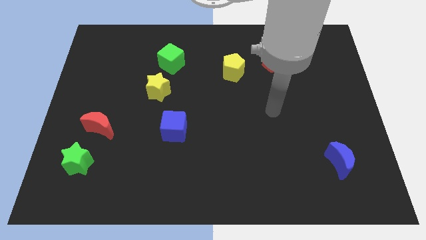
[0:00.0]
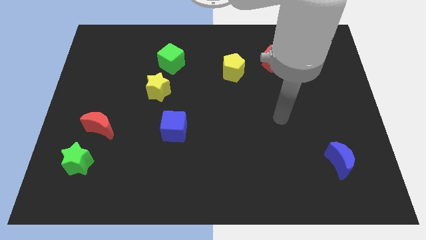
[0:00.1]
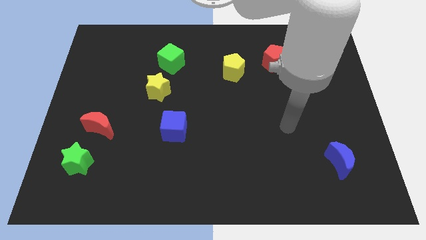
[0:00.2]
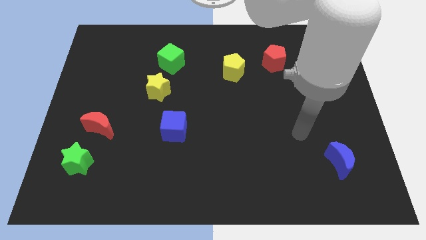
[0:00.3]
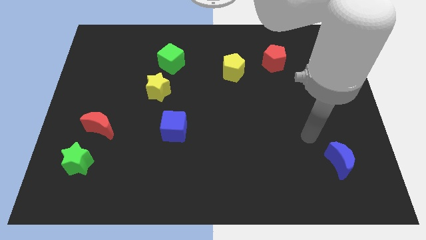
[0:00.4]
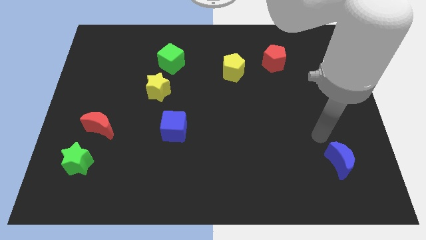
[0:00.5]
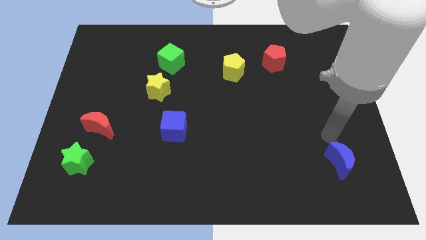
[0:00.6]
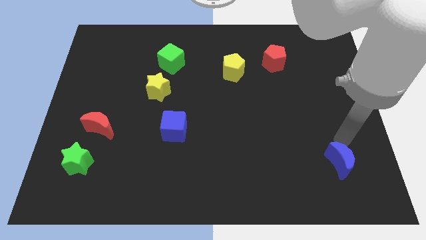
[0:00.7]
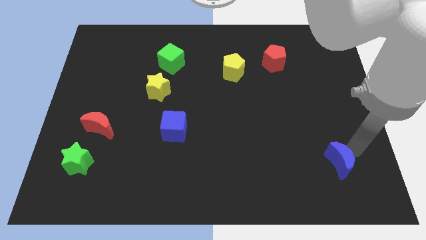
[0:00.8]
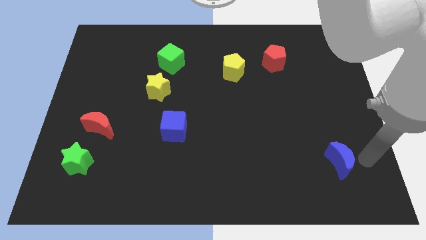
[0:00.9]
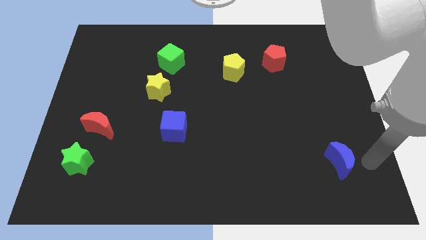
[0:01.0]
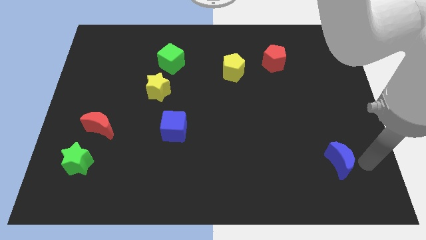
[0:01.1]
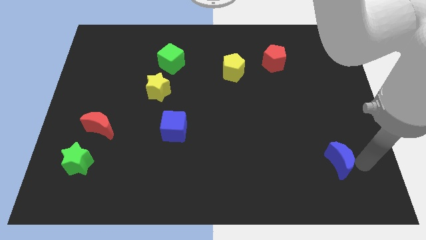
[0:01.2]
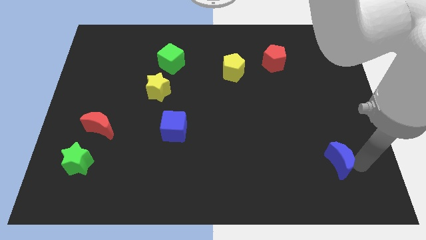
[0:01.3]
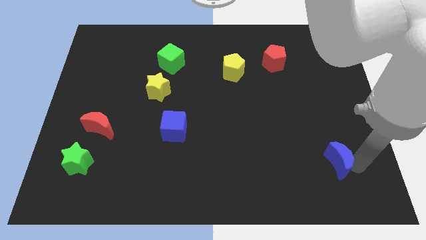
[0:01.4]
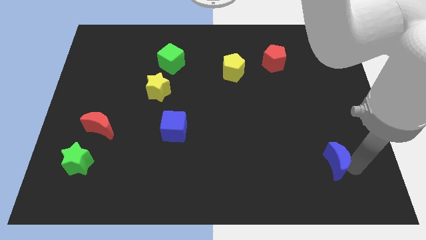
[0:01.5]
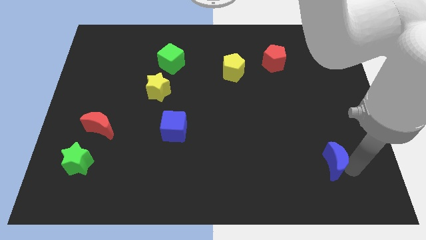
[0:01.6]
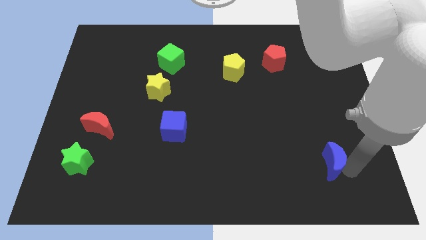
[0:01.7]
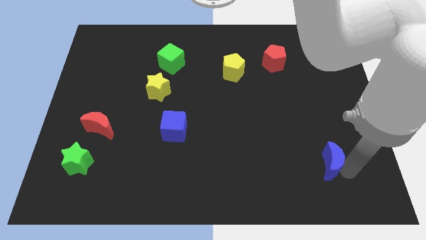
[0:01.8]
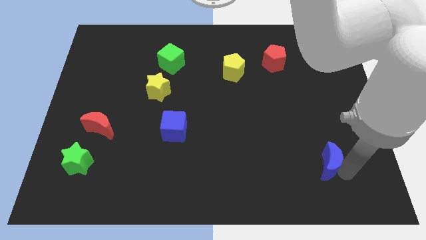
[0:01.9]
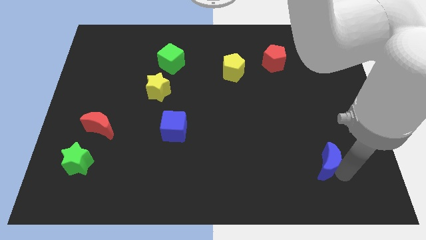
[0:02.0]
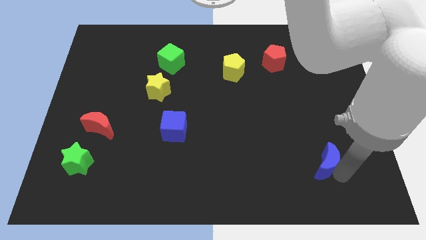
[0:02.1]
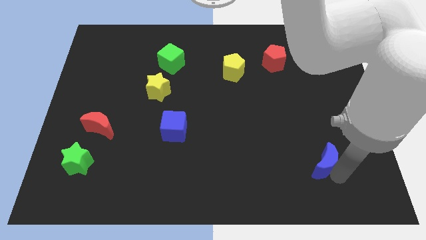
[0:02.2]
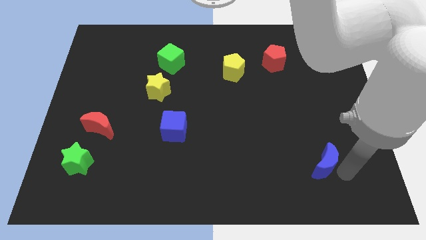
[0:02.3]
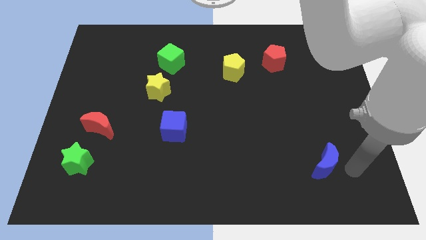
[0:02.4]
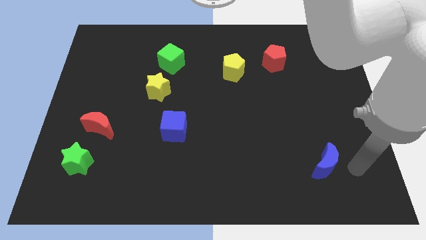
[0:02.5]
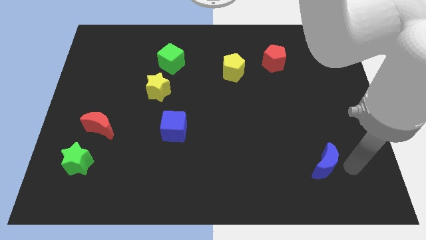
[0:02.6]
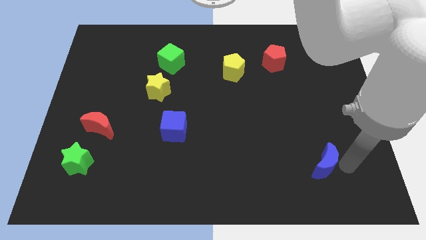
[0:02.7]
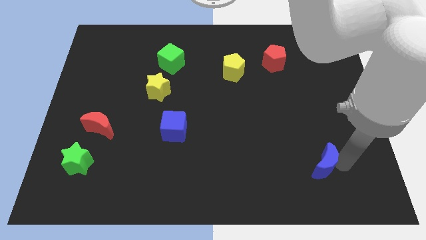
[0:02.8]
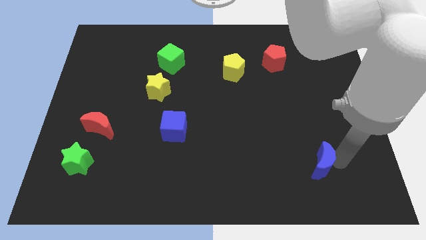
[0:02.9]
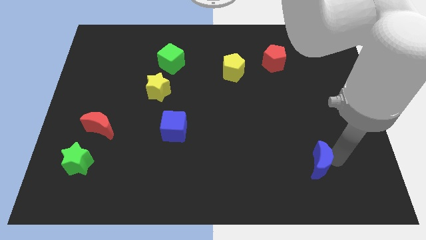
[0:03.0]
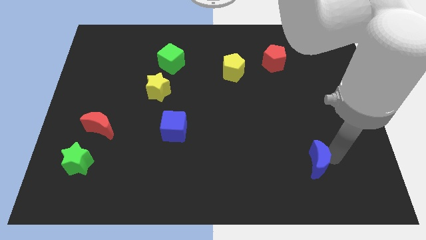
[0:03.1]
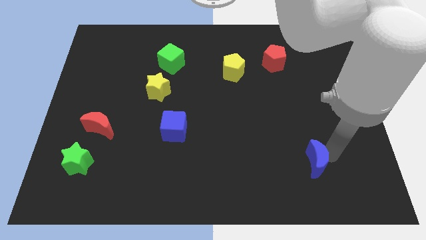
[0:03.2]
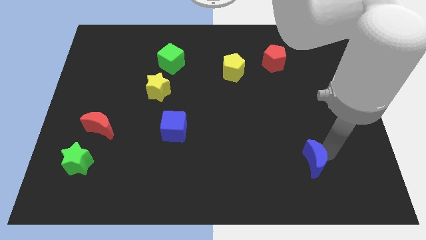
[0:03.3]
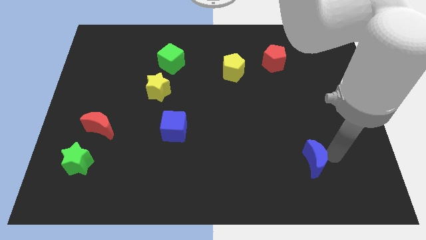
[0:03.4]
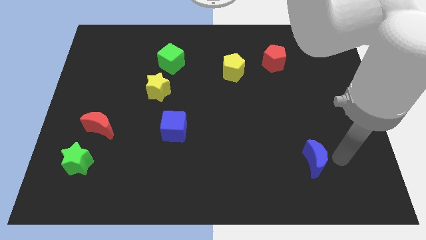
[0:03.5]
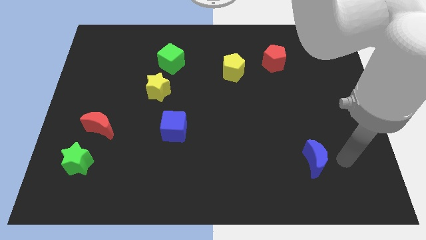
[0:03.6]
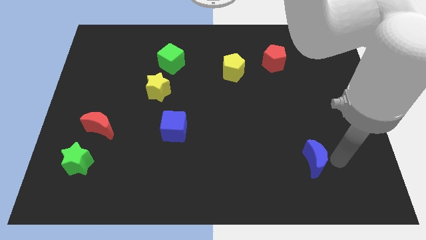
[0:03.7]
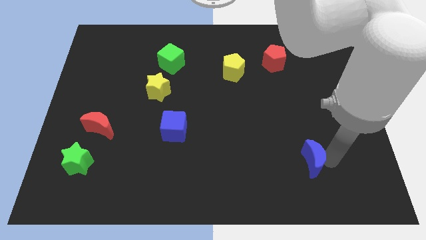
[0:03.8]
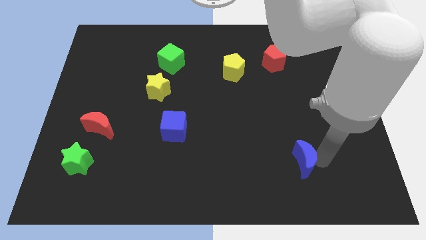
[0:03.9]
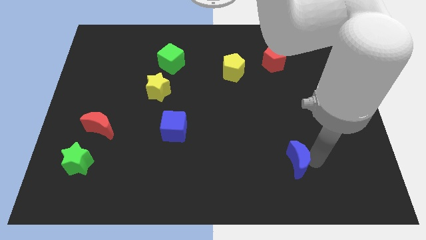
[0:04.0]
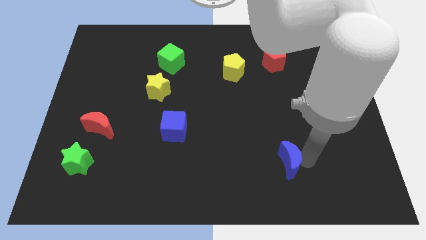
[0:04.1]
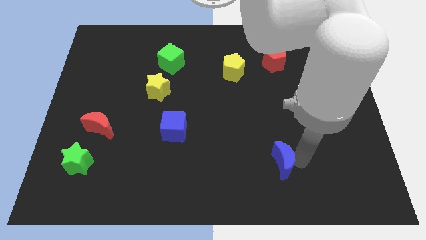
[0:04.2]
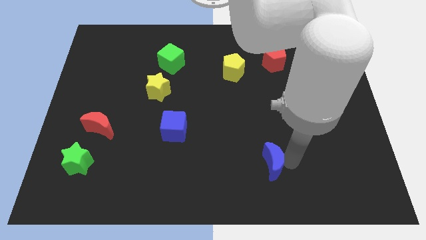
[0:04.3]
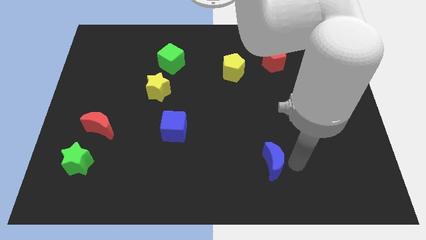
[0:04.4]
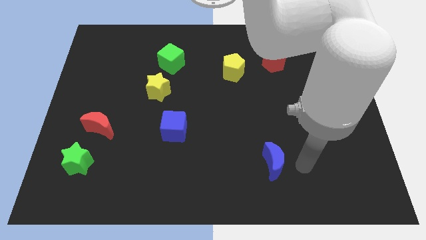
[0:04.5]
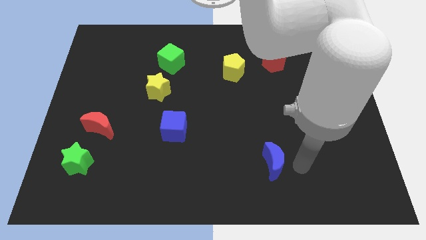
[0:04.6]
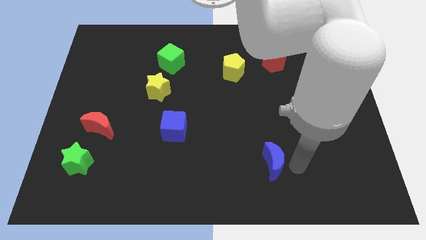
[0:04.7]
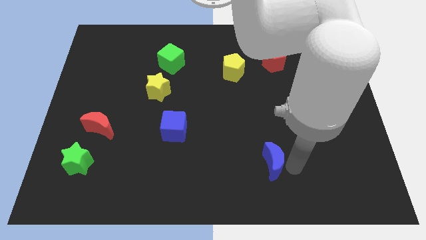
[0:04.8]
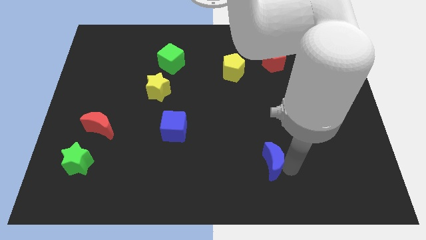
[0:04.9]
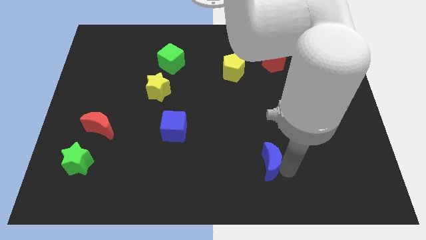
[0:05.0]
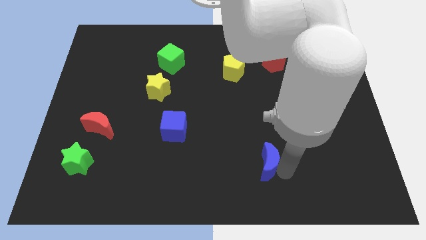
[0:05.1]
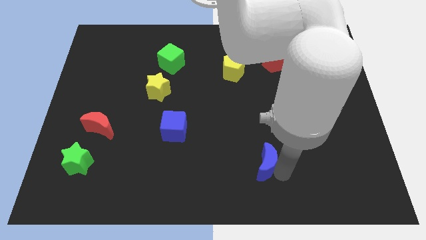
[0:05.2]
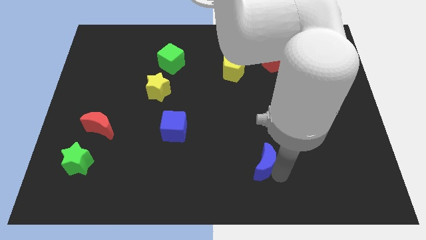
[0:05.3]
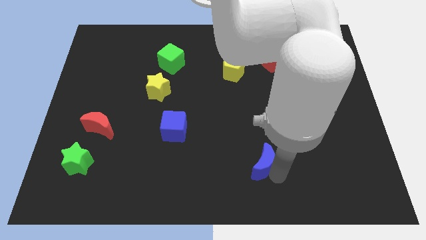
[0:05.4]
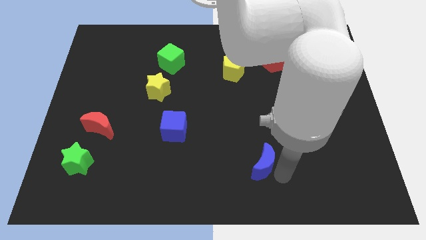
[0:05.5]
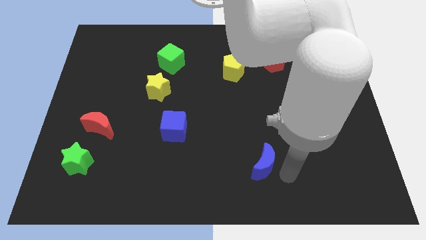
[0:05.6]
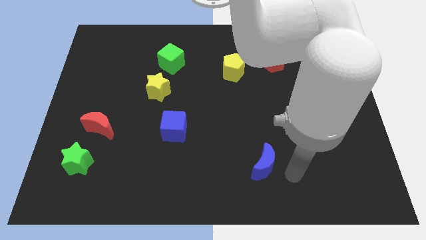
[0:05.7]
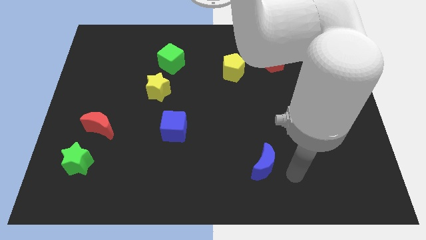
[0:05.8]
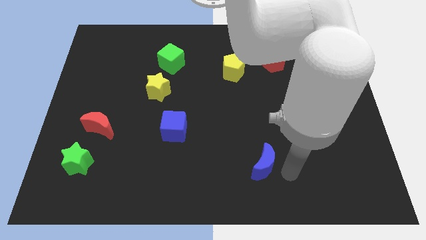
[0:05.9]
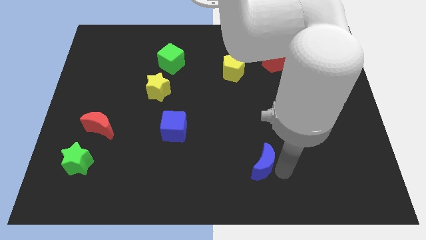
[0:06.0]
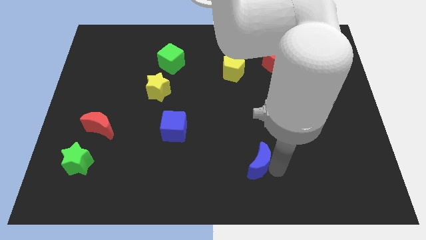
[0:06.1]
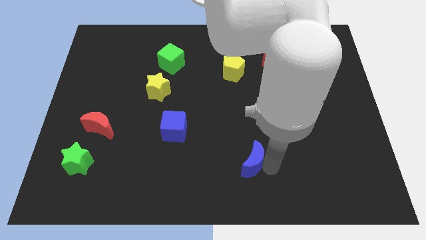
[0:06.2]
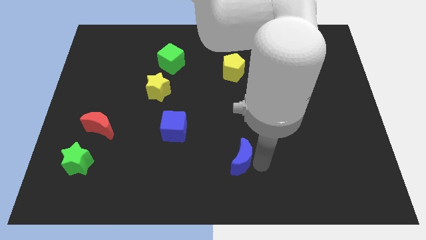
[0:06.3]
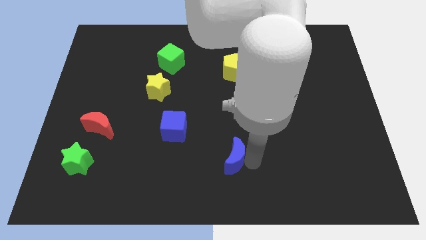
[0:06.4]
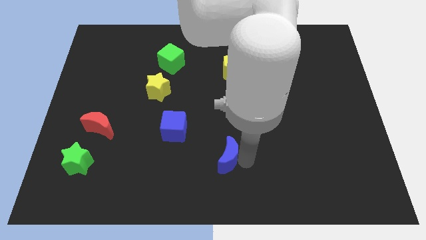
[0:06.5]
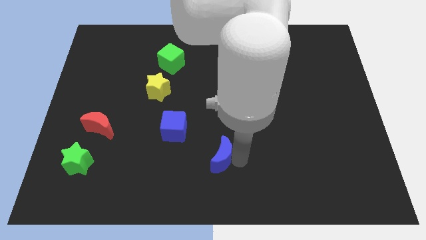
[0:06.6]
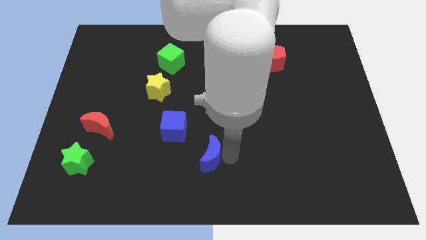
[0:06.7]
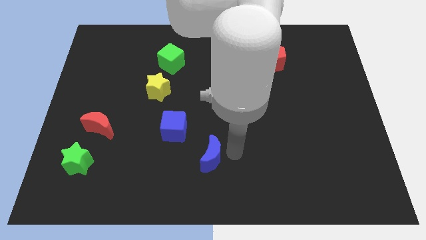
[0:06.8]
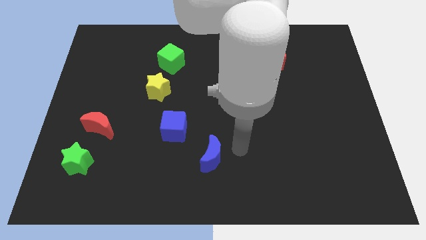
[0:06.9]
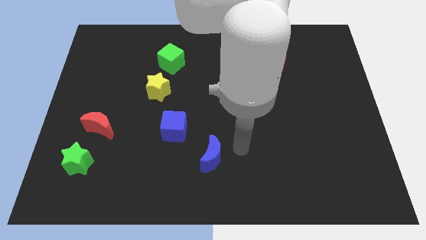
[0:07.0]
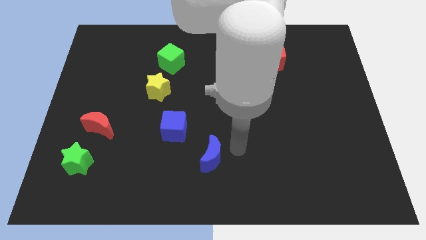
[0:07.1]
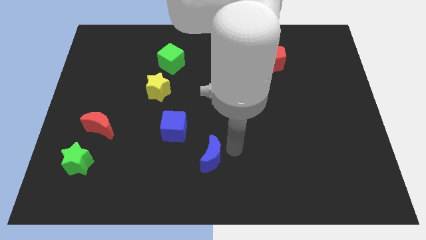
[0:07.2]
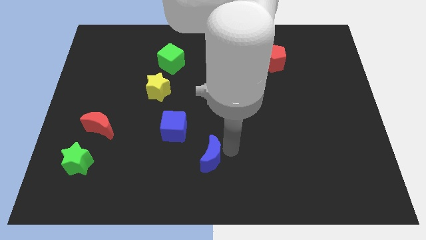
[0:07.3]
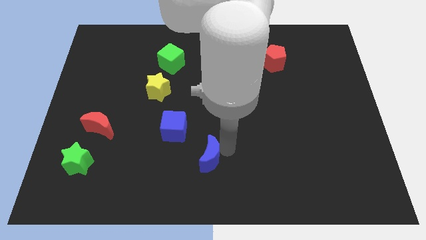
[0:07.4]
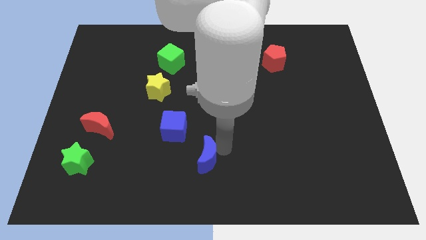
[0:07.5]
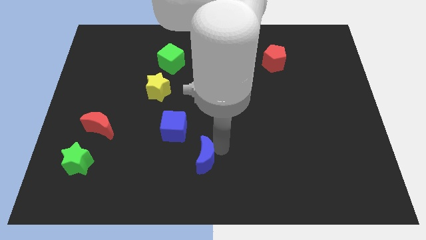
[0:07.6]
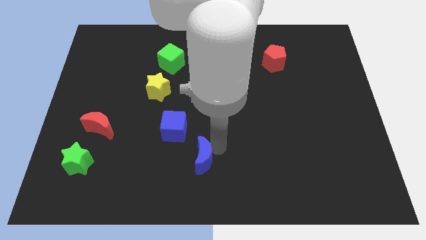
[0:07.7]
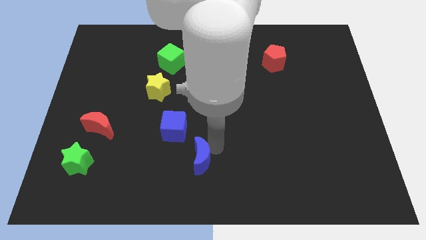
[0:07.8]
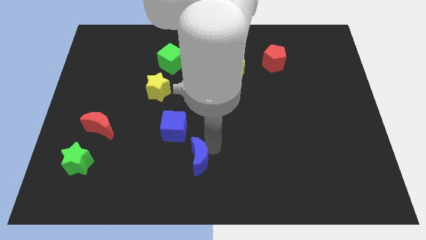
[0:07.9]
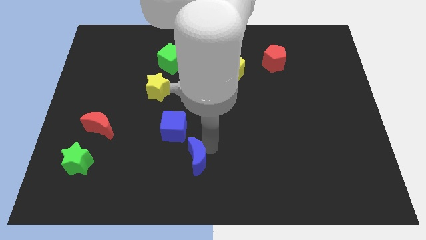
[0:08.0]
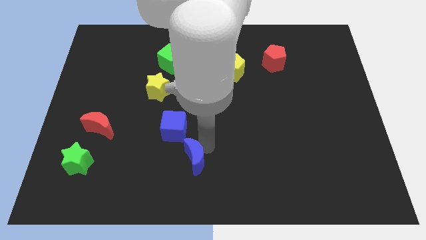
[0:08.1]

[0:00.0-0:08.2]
move the blue moon to the bottom of the blue cube
